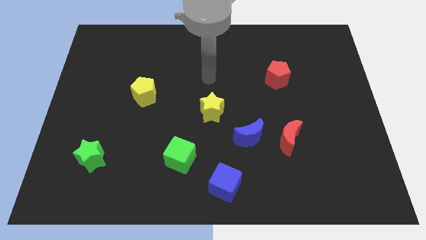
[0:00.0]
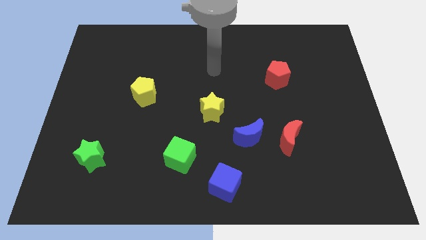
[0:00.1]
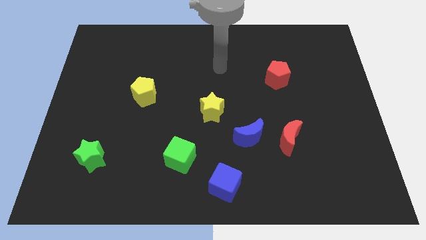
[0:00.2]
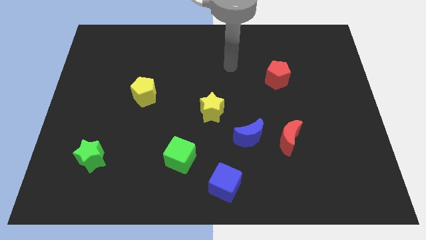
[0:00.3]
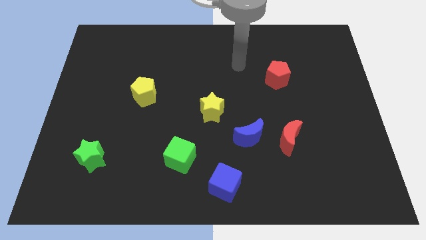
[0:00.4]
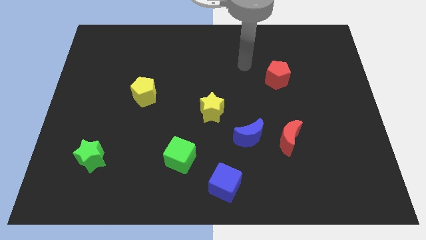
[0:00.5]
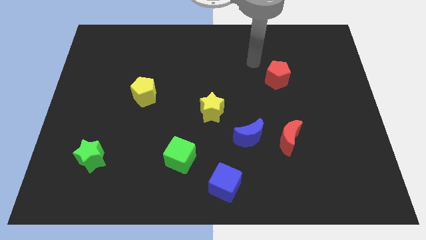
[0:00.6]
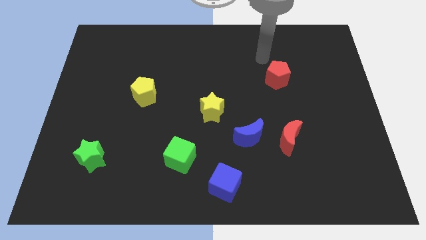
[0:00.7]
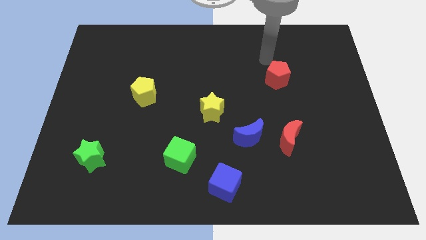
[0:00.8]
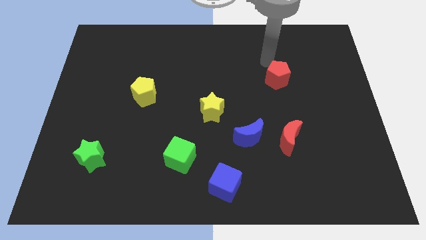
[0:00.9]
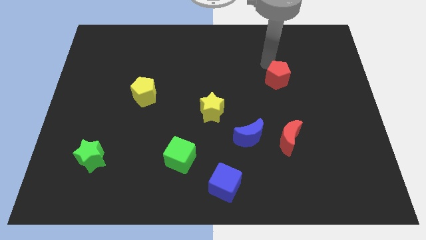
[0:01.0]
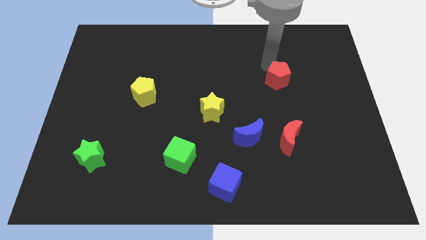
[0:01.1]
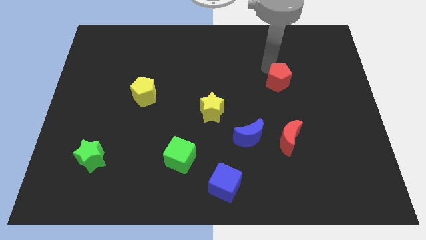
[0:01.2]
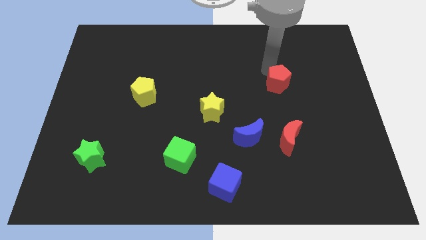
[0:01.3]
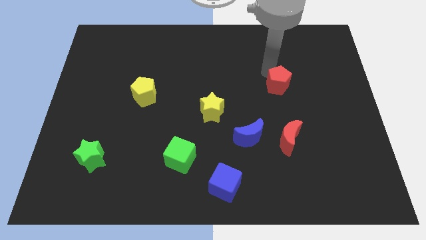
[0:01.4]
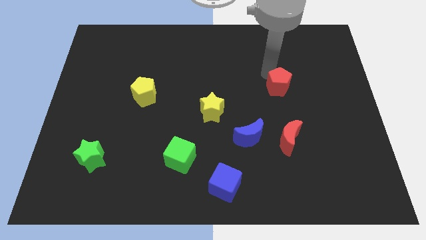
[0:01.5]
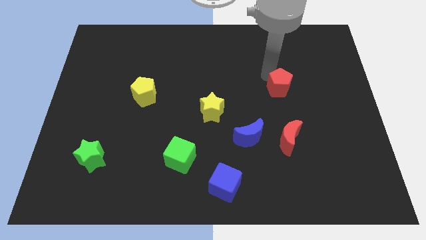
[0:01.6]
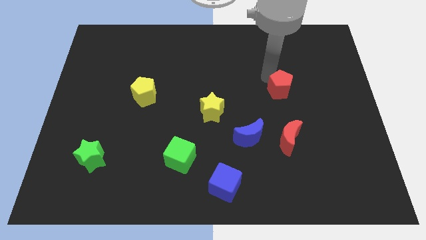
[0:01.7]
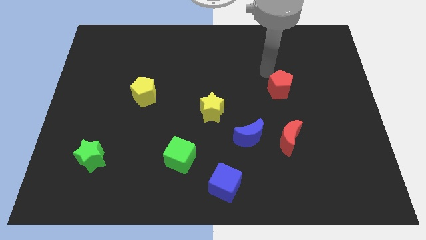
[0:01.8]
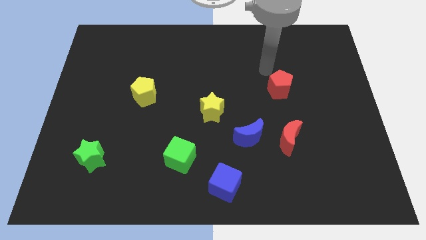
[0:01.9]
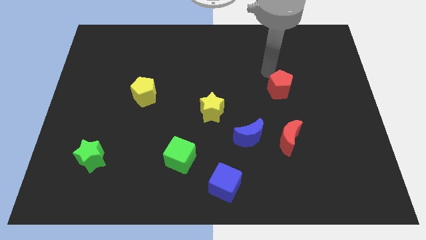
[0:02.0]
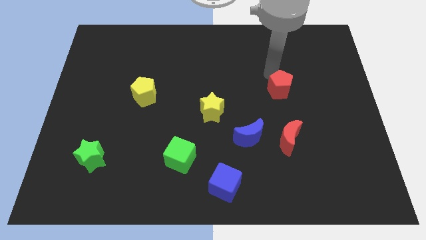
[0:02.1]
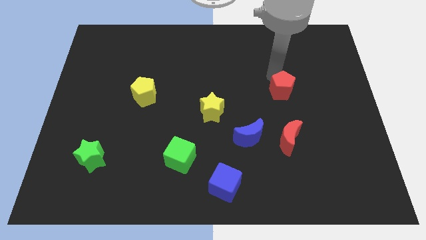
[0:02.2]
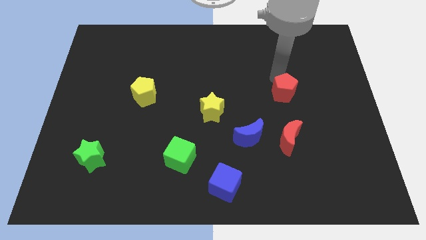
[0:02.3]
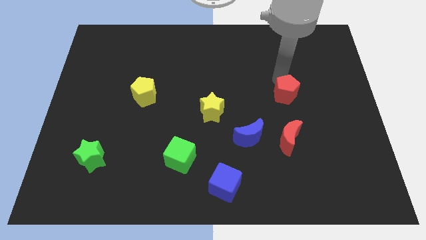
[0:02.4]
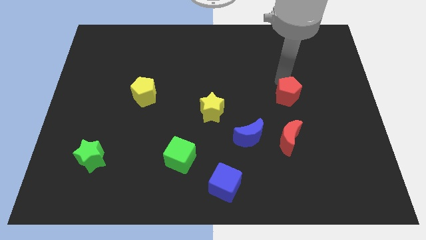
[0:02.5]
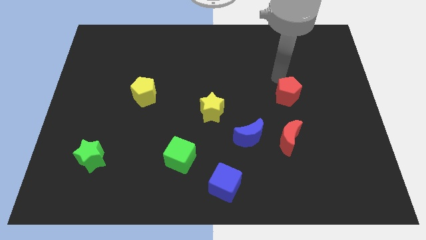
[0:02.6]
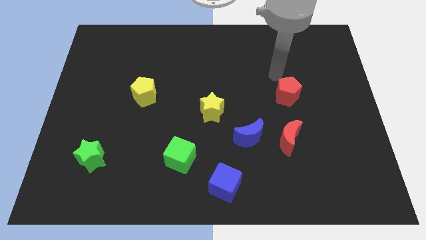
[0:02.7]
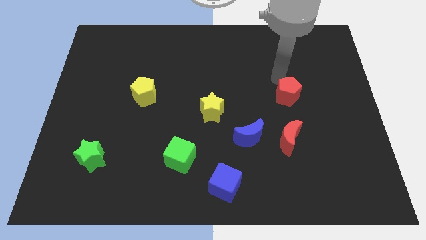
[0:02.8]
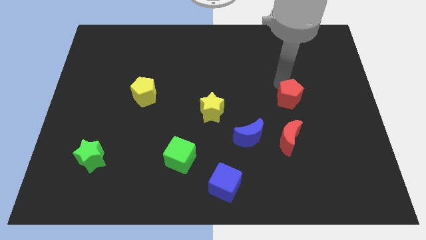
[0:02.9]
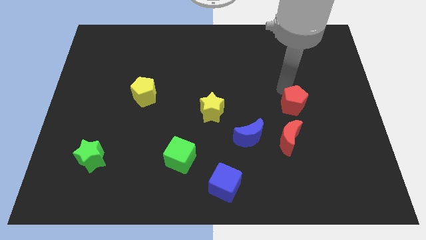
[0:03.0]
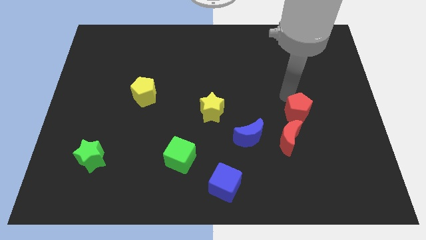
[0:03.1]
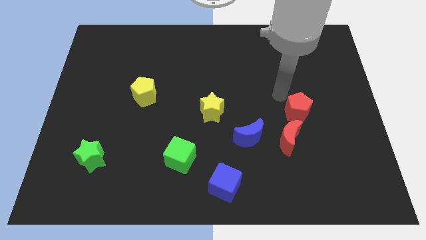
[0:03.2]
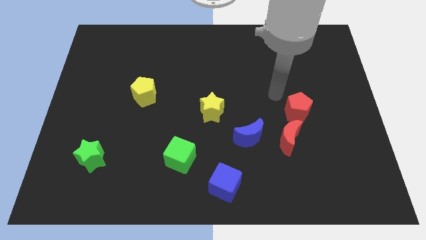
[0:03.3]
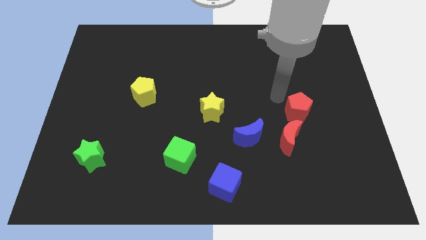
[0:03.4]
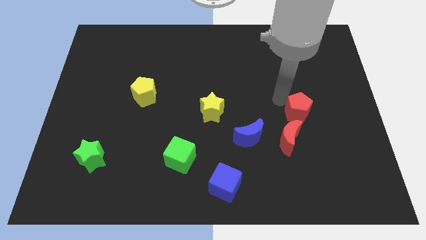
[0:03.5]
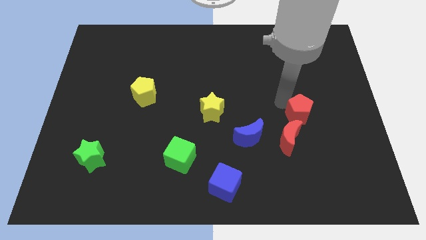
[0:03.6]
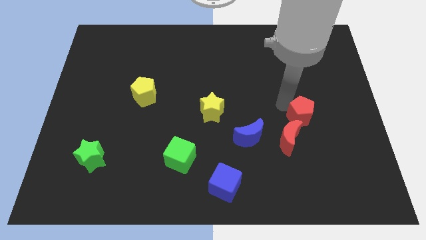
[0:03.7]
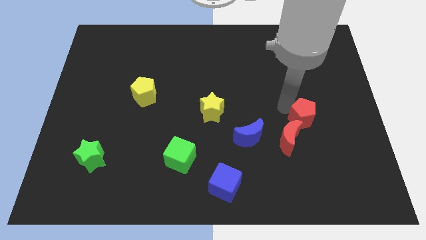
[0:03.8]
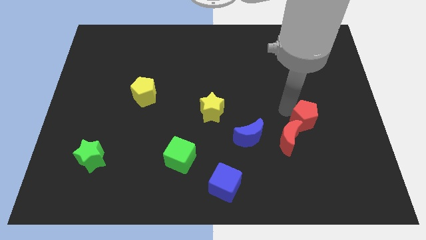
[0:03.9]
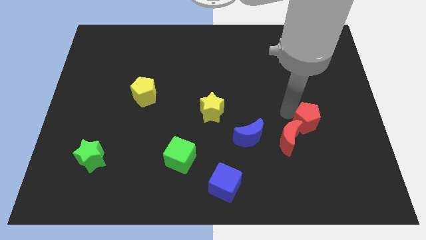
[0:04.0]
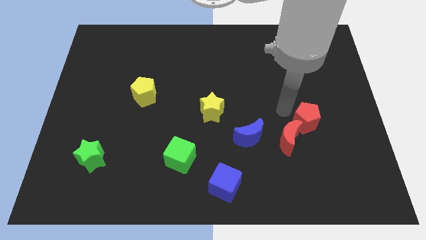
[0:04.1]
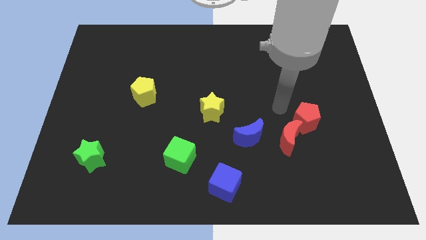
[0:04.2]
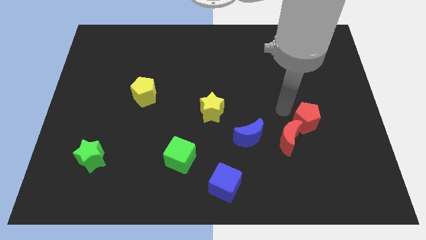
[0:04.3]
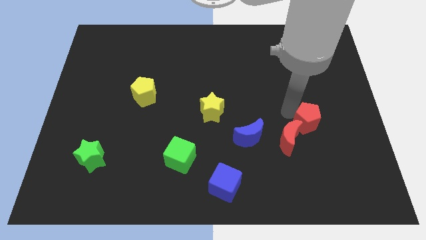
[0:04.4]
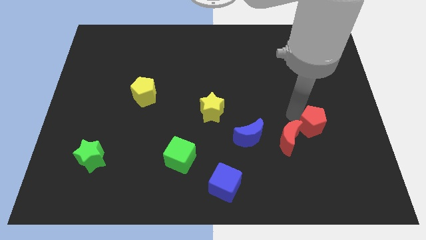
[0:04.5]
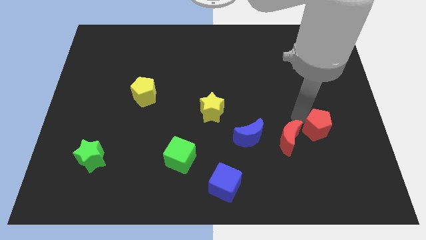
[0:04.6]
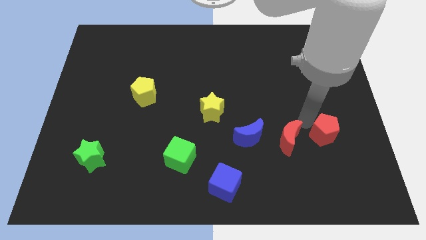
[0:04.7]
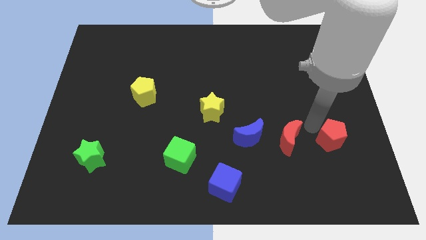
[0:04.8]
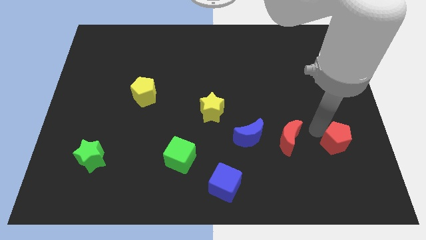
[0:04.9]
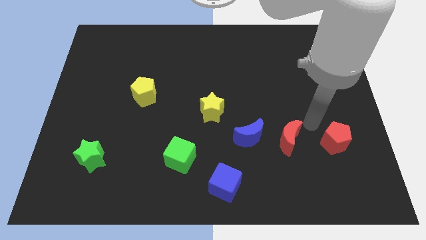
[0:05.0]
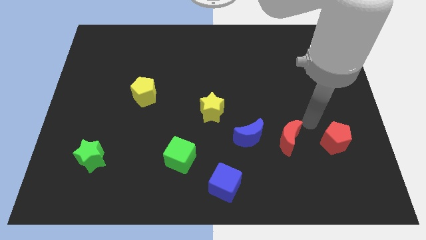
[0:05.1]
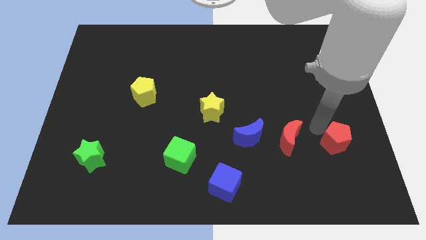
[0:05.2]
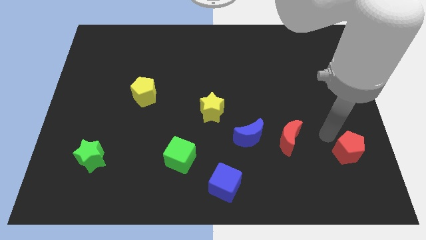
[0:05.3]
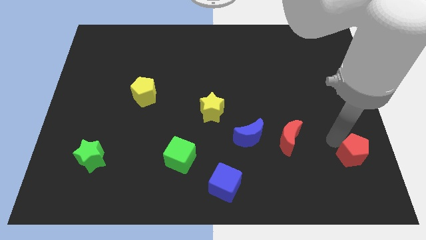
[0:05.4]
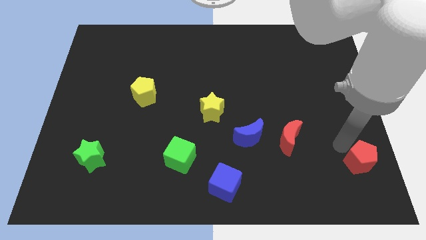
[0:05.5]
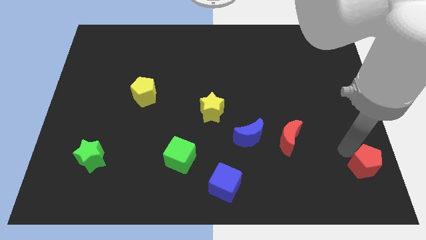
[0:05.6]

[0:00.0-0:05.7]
move the red pentagon to the bottom right of the board
